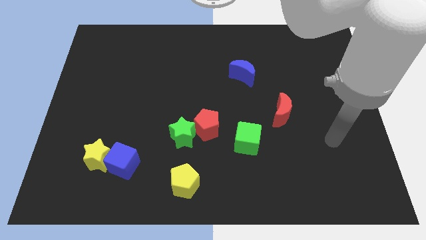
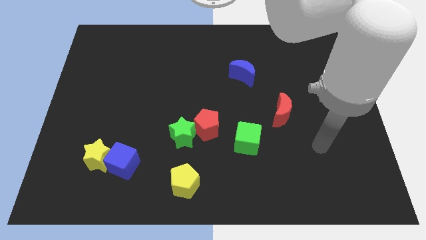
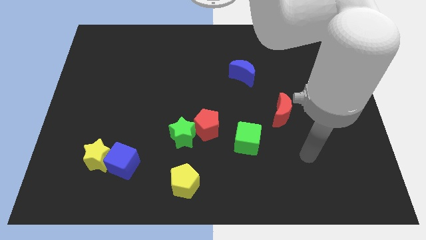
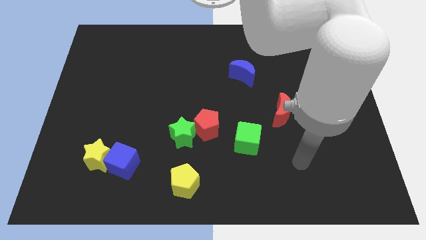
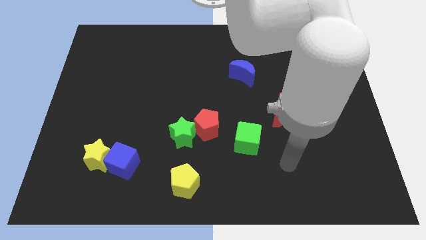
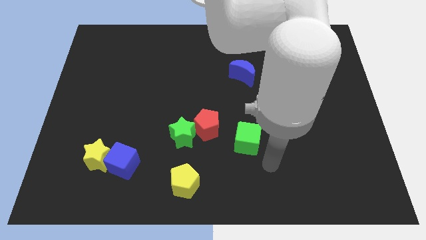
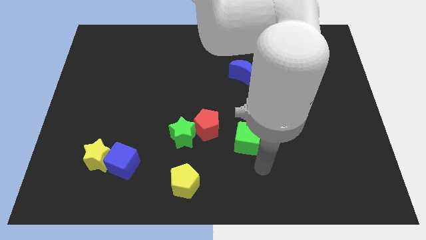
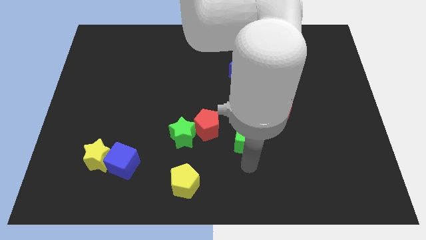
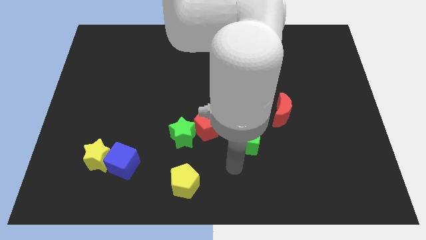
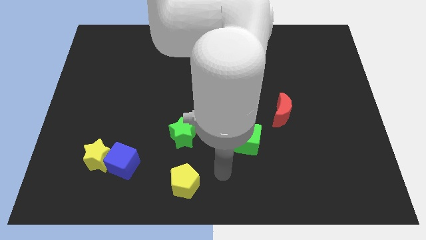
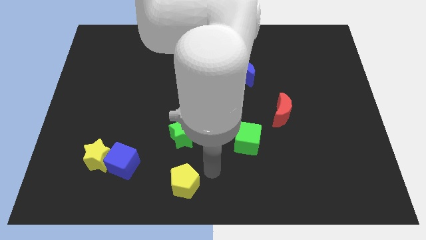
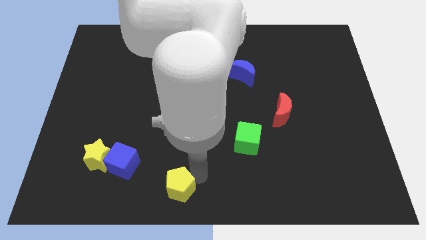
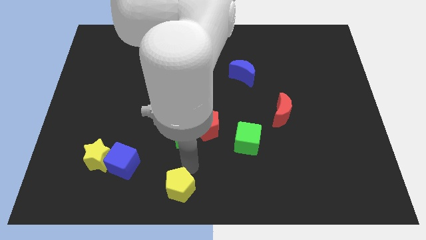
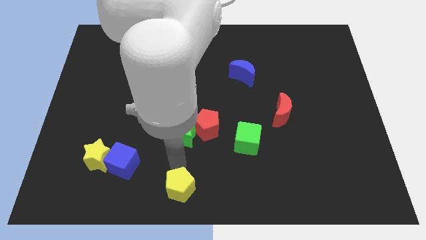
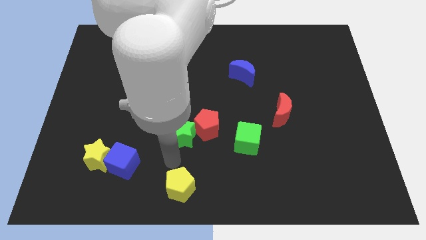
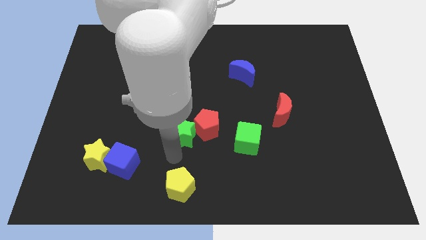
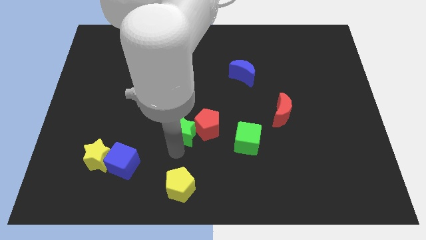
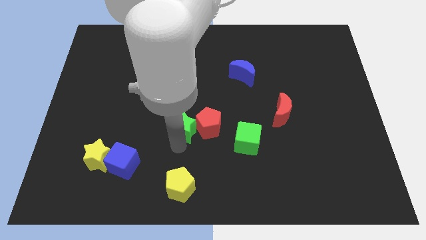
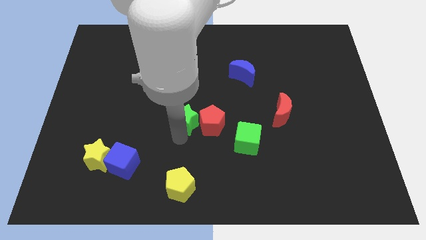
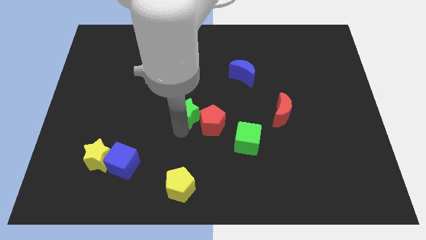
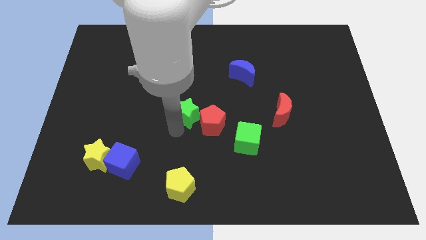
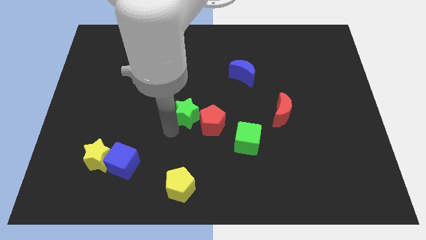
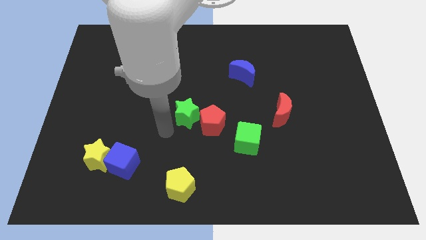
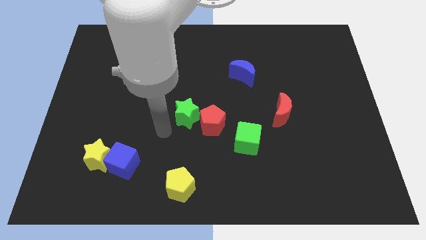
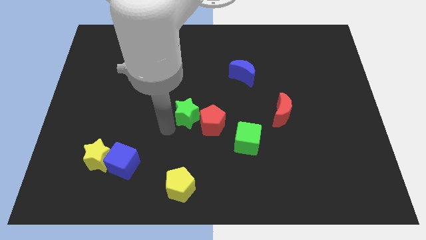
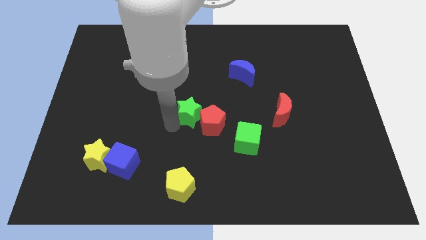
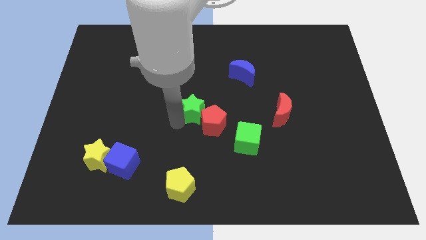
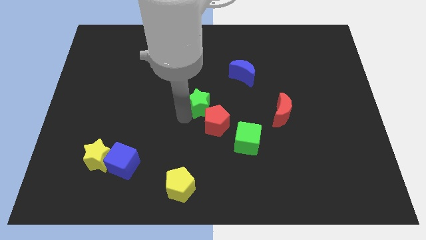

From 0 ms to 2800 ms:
slightly move the green star upwards and right diagonally

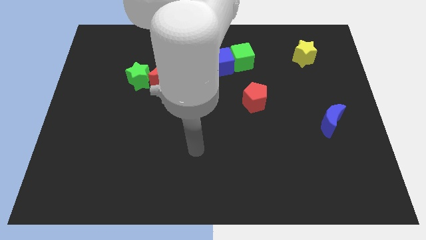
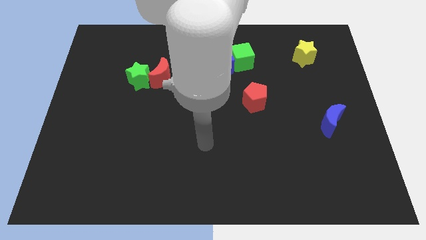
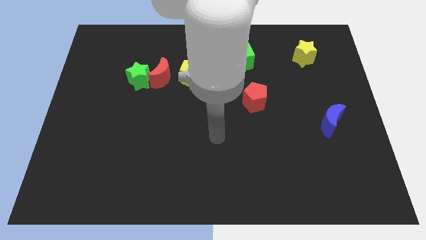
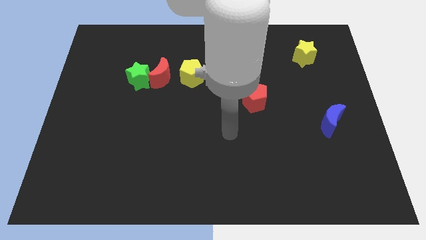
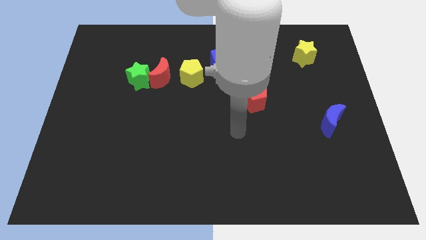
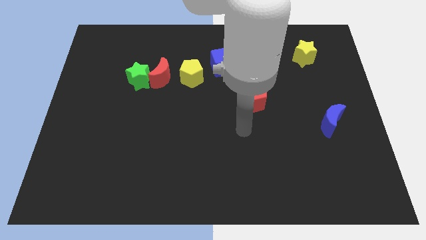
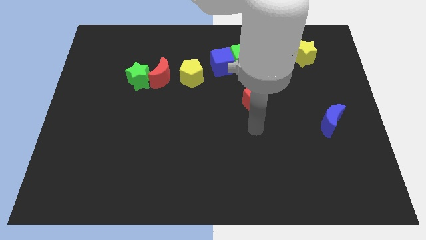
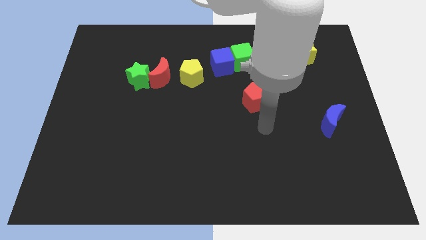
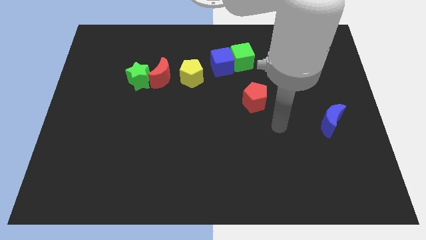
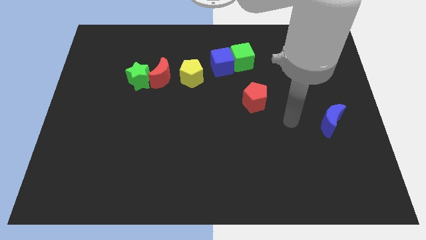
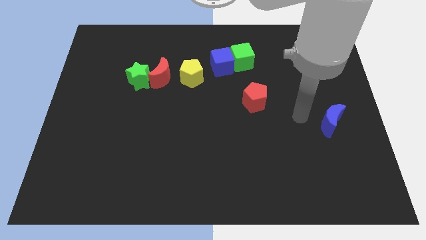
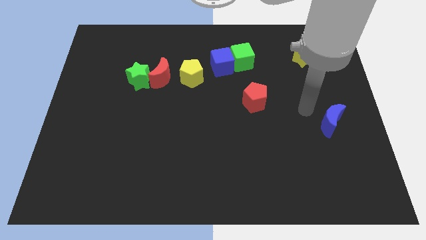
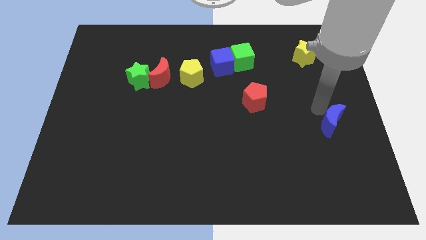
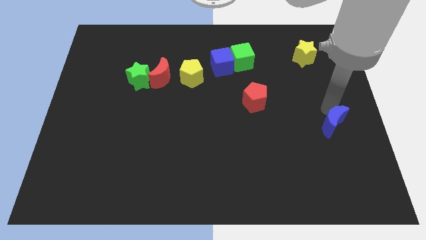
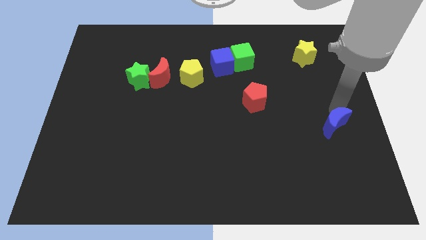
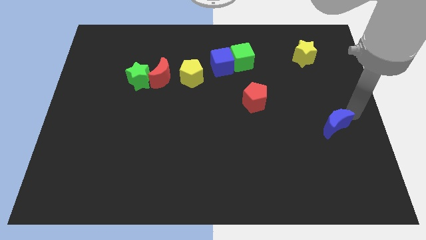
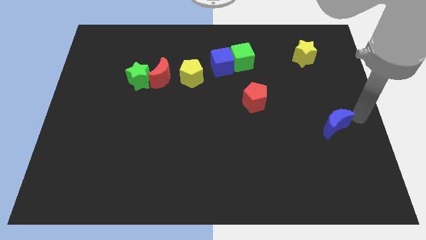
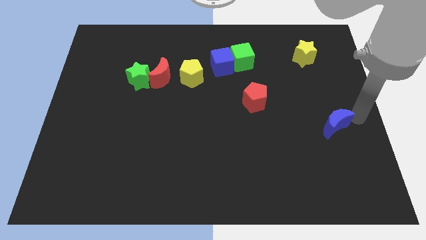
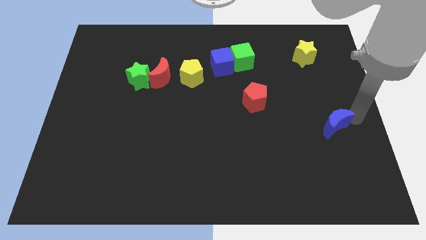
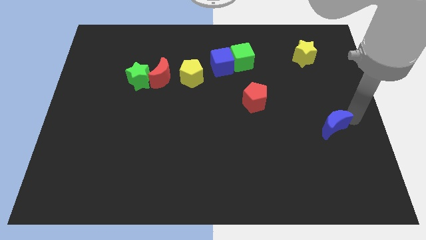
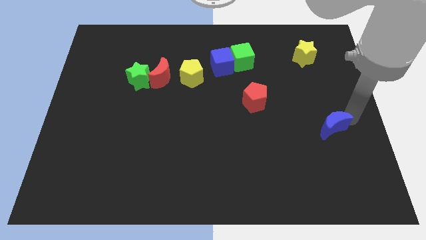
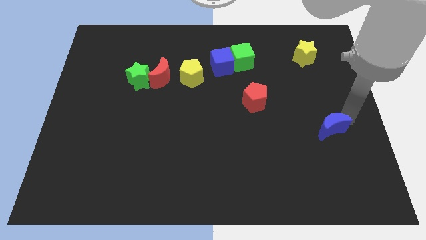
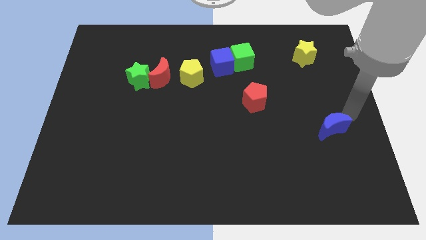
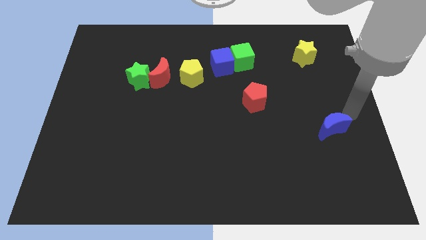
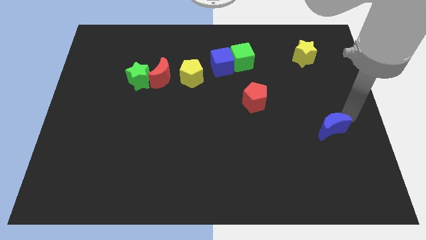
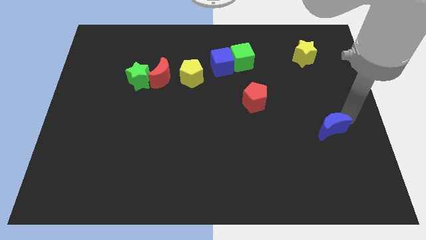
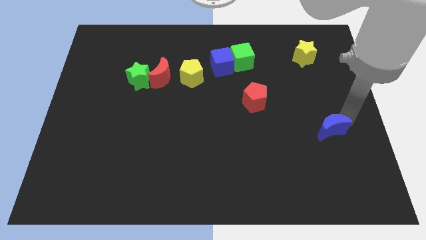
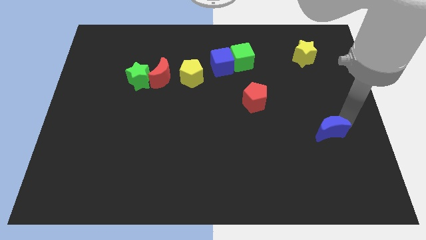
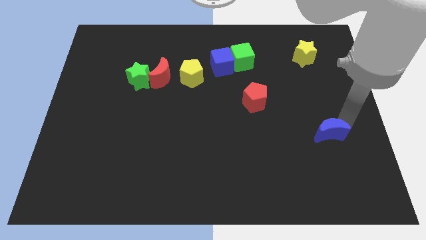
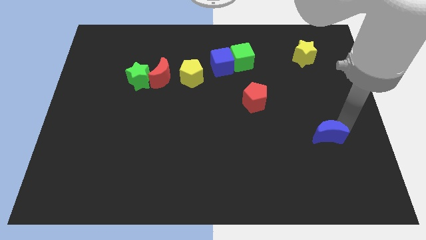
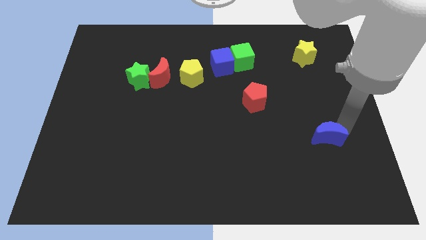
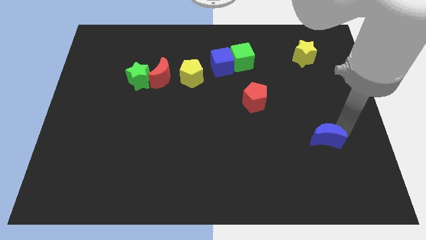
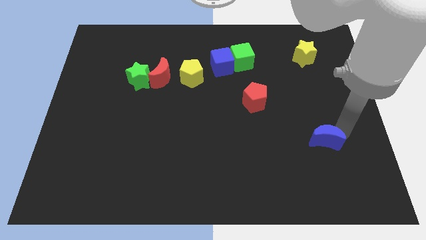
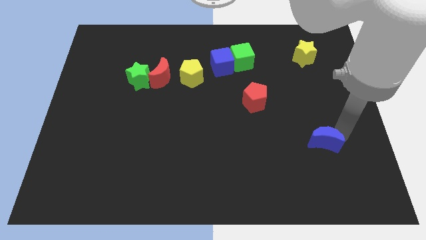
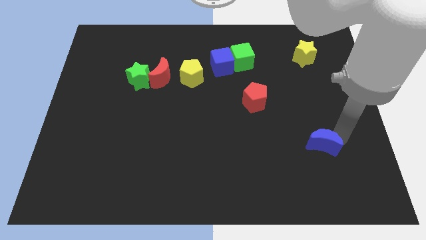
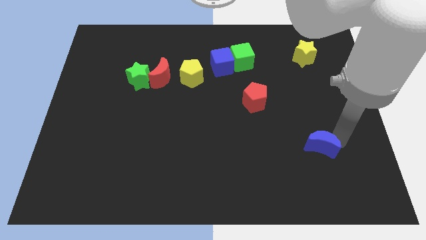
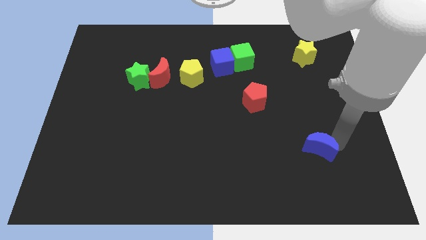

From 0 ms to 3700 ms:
slide the blue moon slightly diagonally downwards and to the left

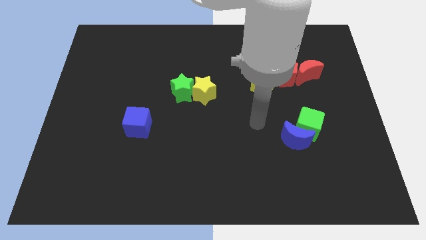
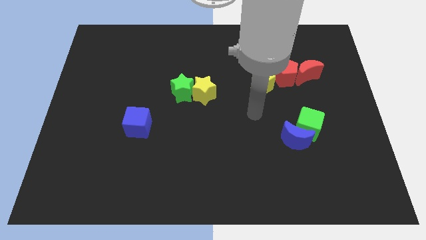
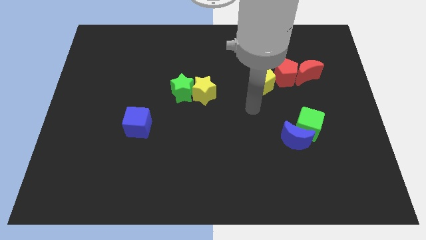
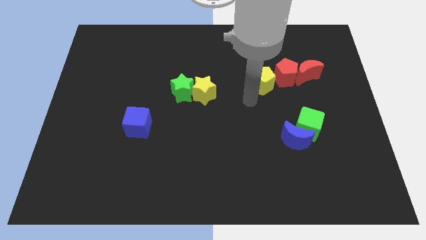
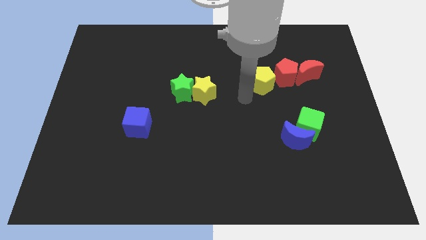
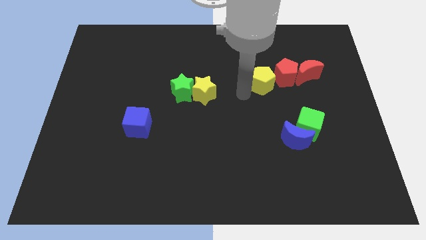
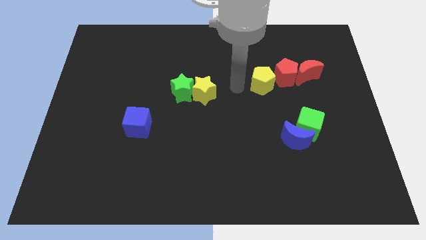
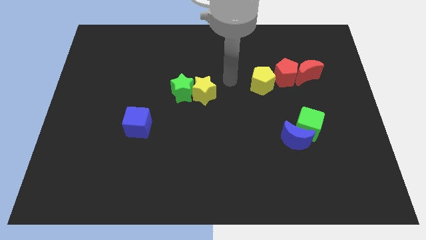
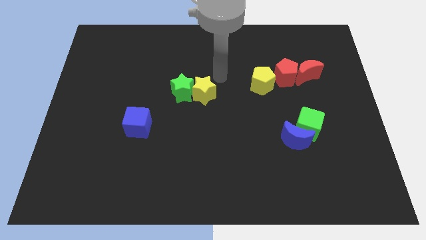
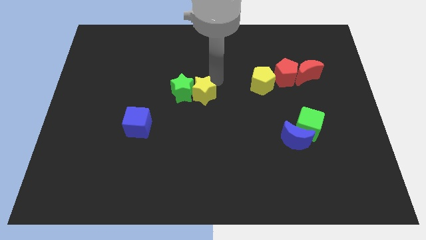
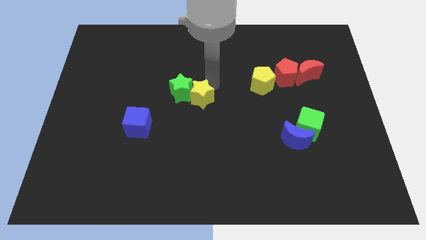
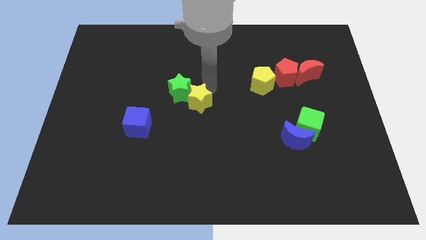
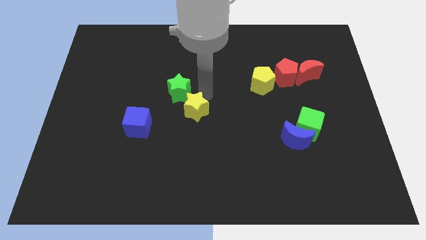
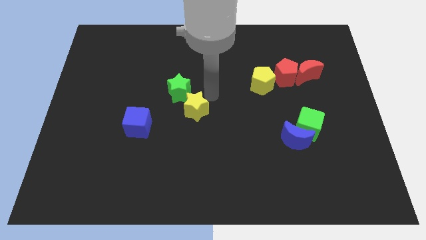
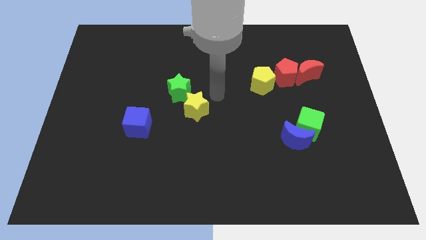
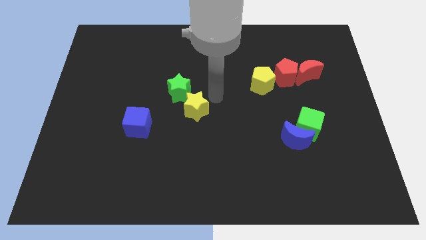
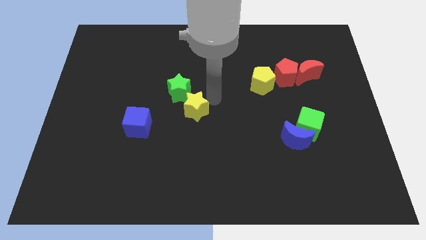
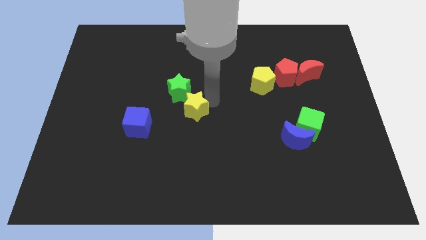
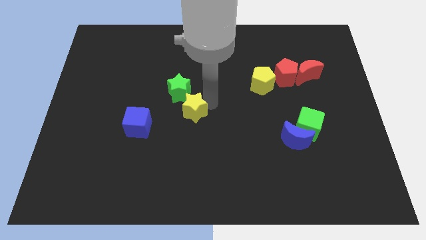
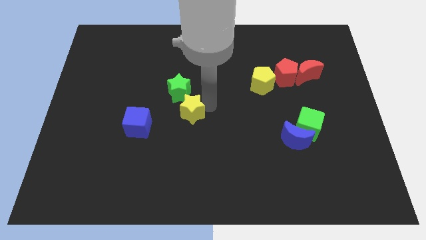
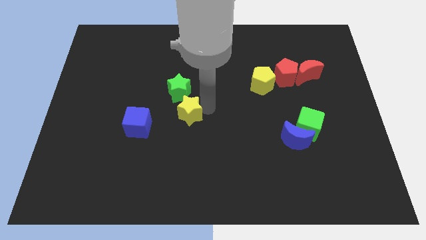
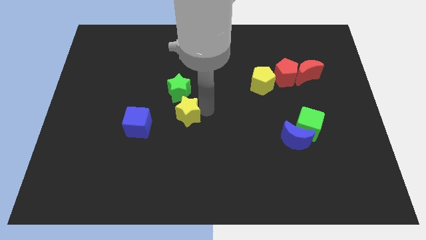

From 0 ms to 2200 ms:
push the yellow star somewhat down and left diagonally
